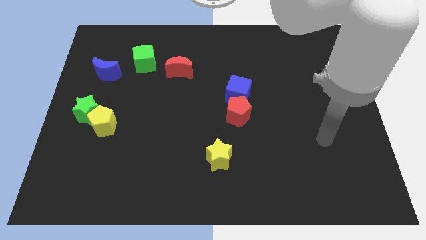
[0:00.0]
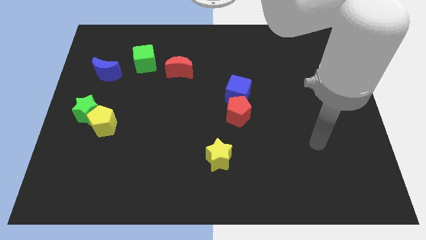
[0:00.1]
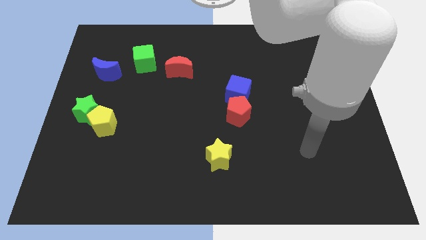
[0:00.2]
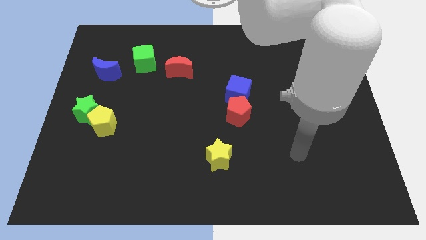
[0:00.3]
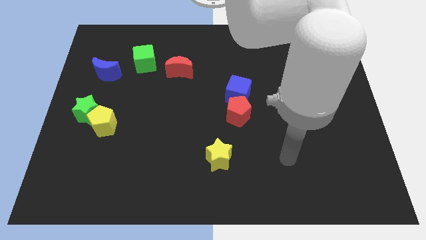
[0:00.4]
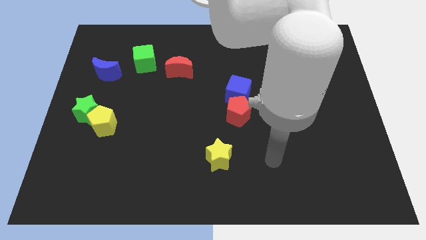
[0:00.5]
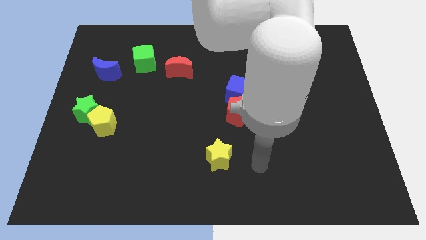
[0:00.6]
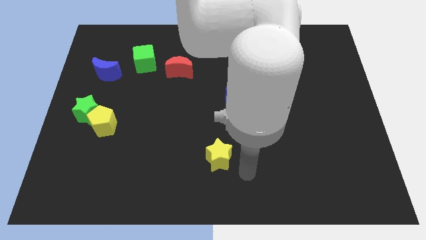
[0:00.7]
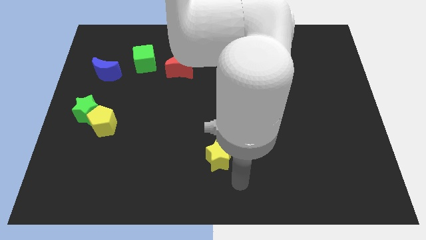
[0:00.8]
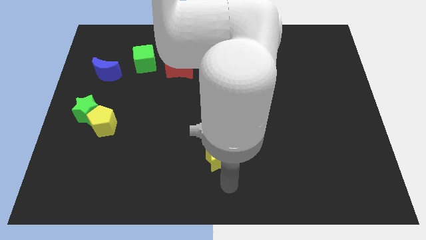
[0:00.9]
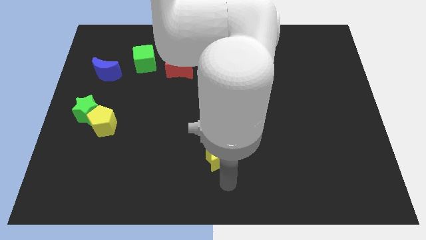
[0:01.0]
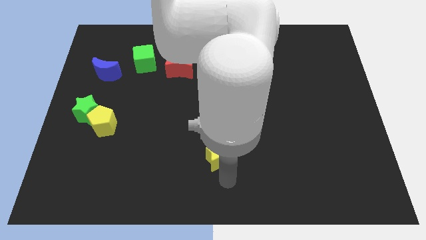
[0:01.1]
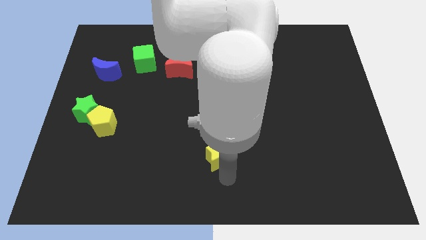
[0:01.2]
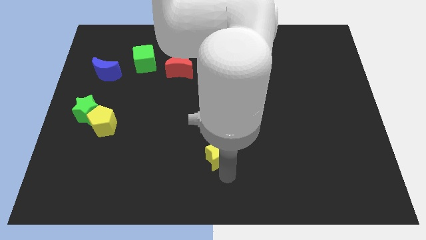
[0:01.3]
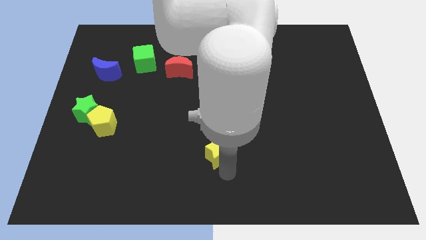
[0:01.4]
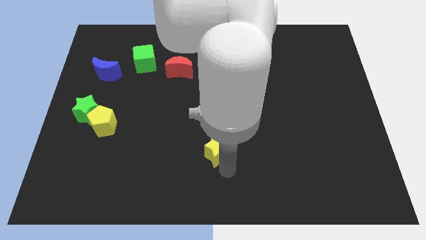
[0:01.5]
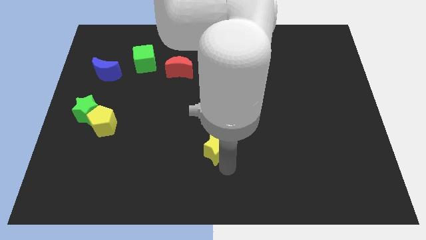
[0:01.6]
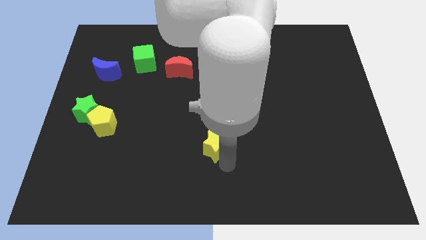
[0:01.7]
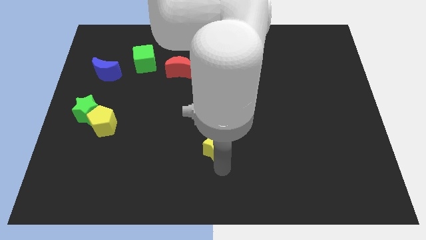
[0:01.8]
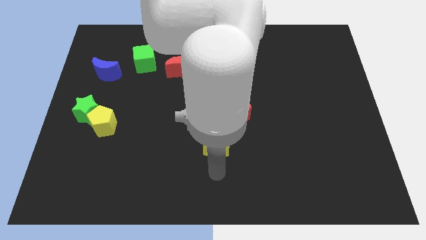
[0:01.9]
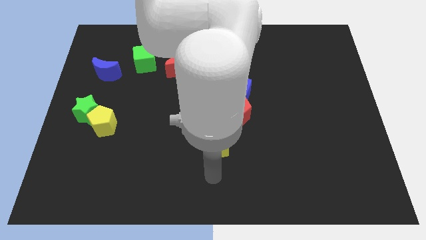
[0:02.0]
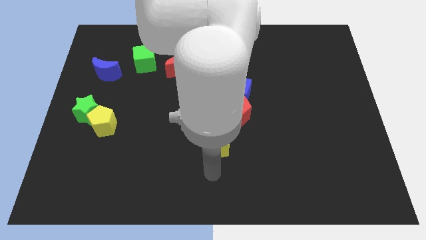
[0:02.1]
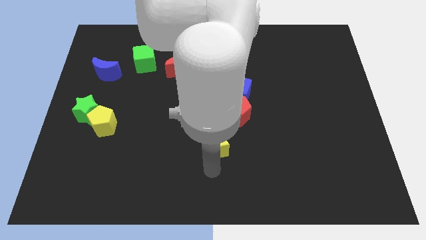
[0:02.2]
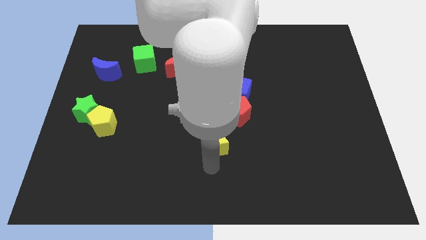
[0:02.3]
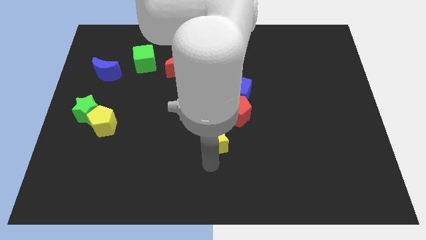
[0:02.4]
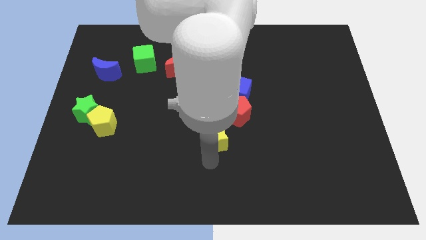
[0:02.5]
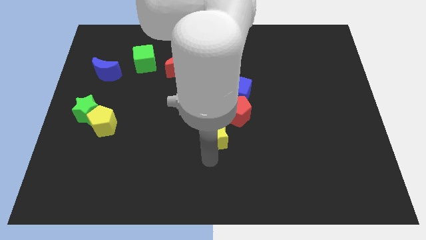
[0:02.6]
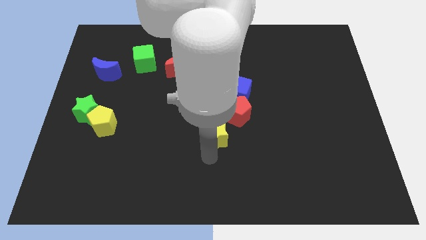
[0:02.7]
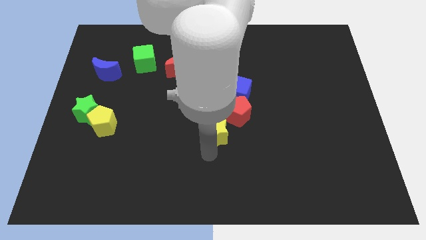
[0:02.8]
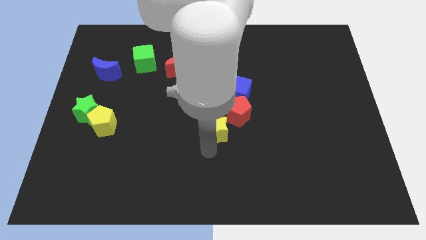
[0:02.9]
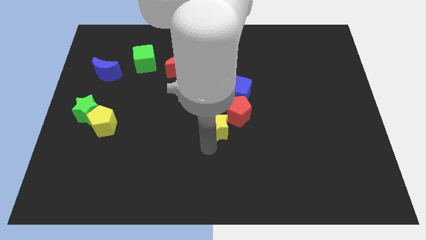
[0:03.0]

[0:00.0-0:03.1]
move the yellow star a little bit up

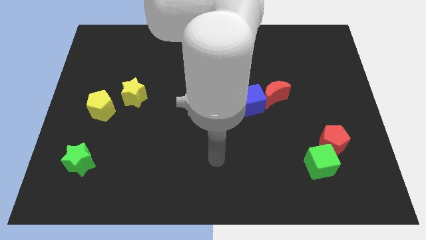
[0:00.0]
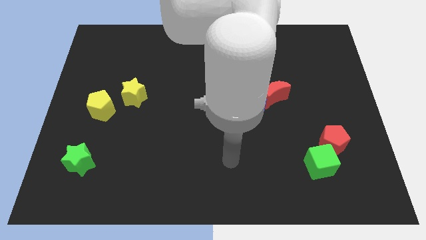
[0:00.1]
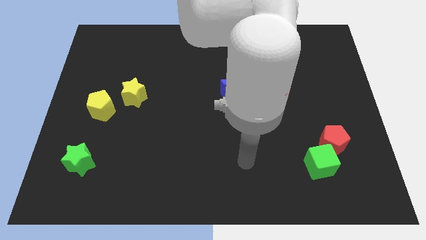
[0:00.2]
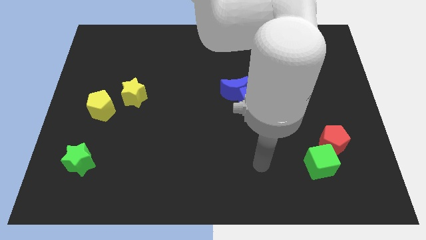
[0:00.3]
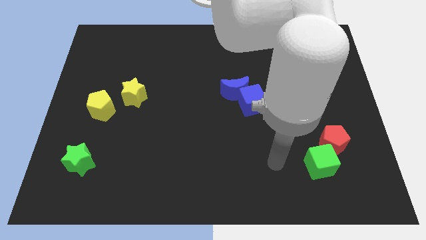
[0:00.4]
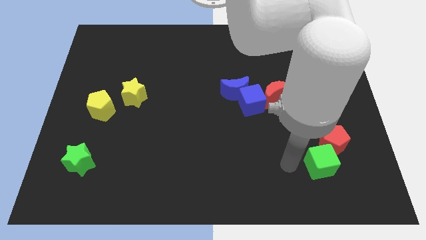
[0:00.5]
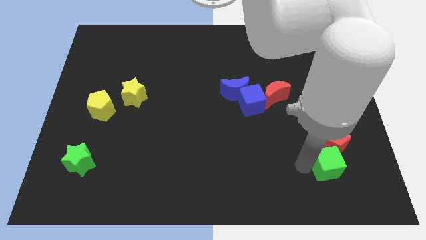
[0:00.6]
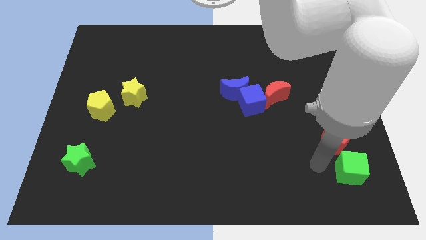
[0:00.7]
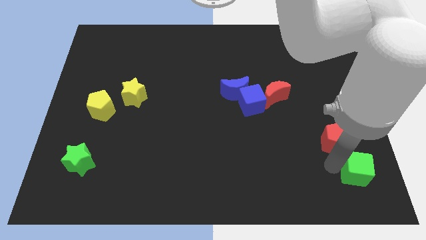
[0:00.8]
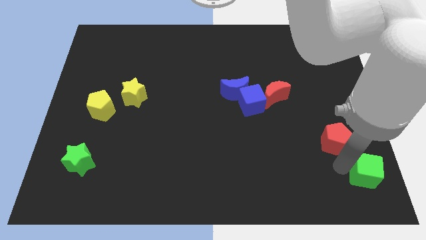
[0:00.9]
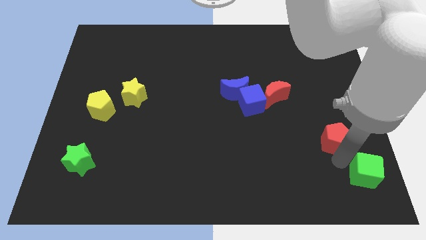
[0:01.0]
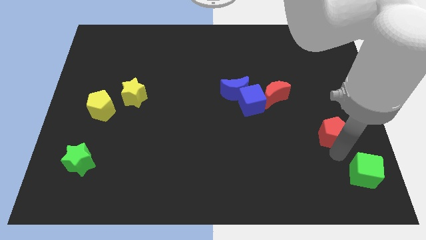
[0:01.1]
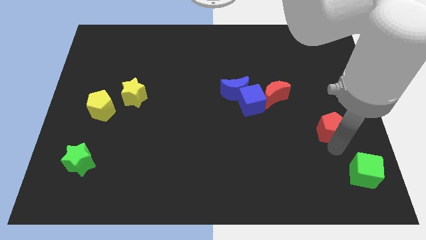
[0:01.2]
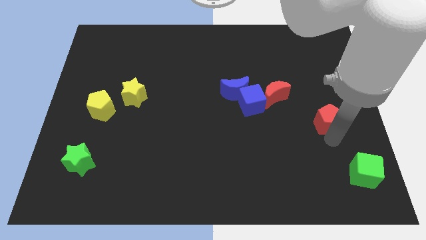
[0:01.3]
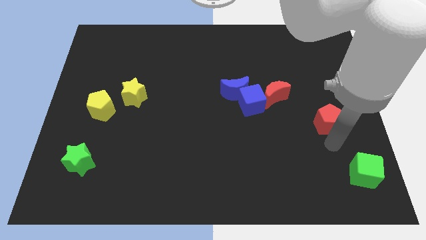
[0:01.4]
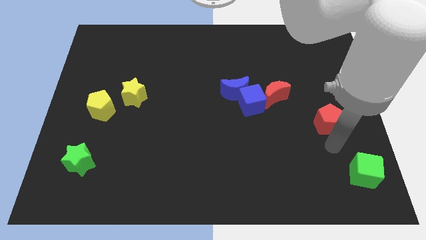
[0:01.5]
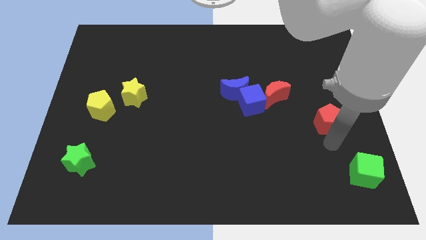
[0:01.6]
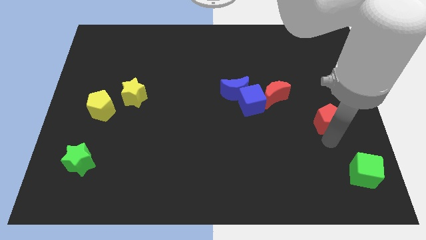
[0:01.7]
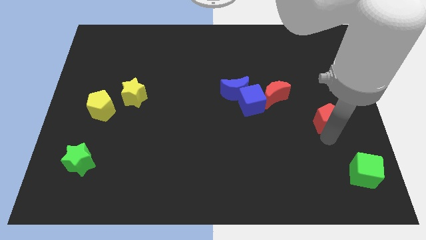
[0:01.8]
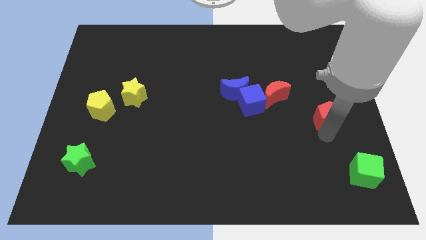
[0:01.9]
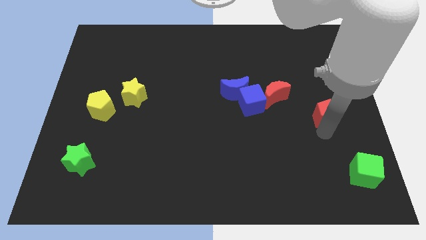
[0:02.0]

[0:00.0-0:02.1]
slide the red pentagon a little up

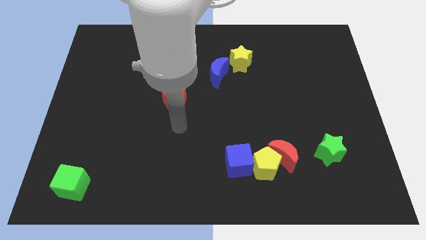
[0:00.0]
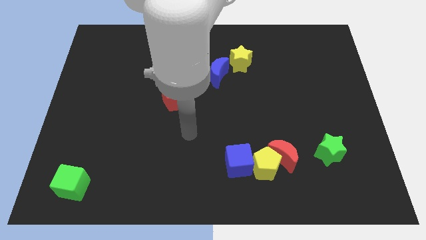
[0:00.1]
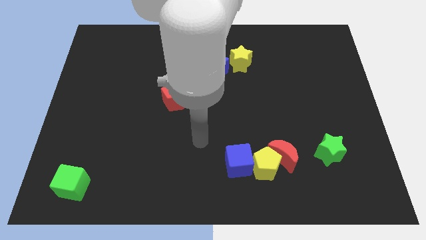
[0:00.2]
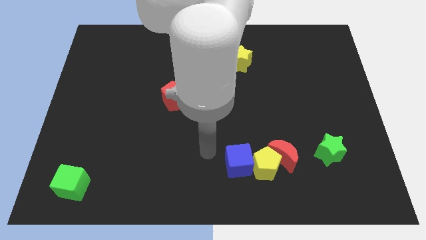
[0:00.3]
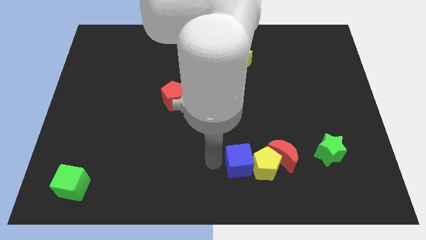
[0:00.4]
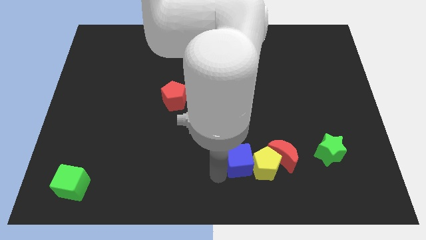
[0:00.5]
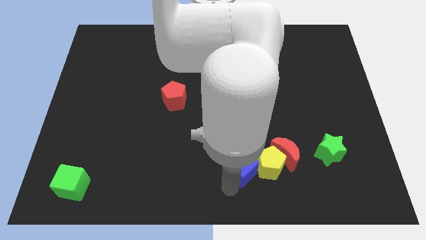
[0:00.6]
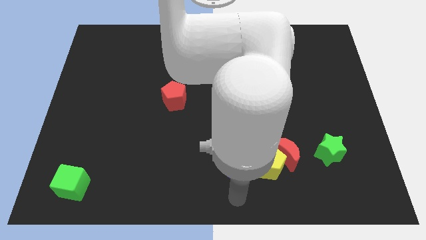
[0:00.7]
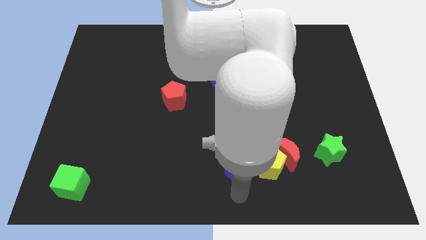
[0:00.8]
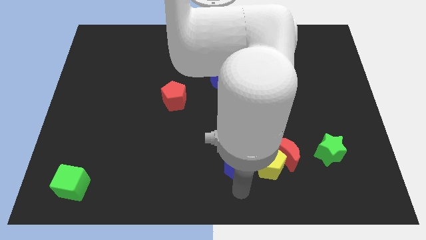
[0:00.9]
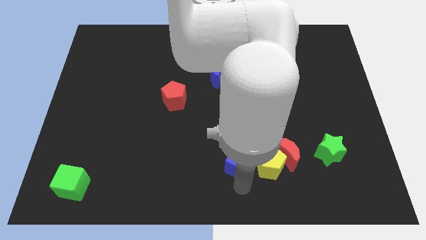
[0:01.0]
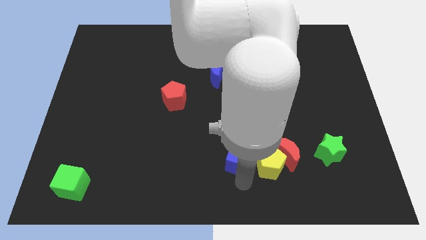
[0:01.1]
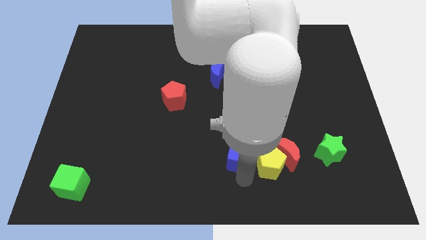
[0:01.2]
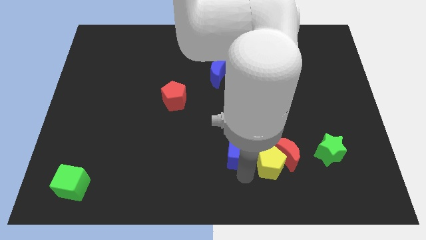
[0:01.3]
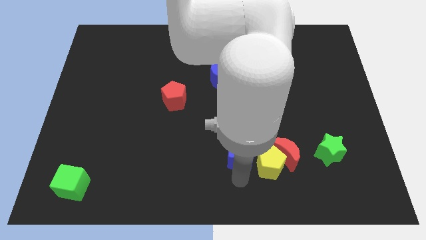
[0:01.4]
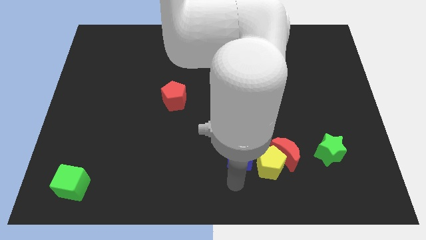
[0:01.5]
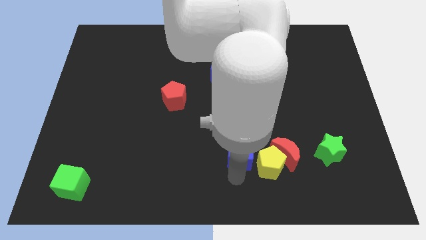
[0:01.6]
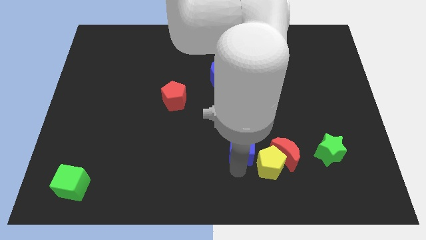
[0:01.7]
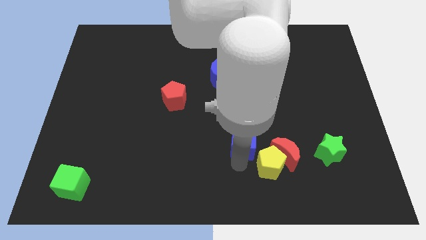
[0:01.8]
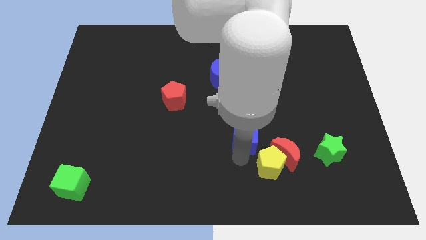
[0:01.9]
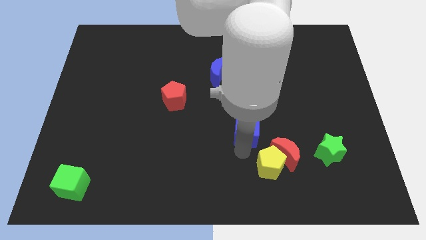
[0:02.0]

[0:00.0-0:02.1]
slightly slide the blue cube upwards

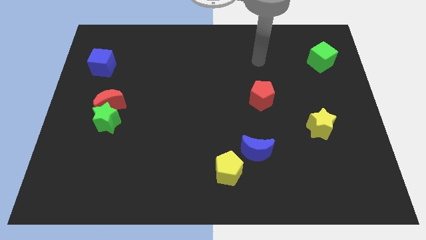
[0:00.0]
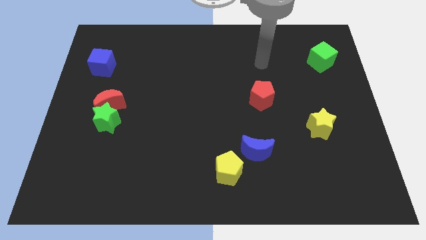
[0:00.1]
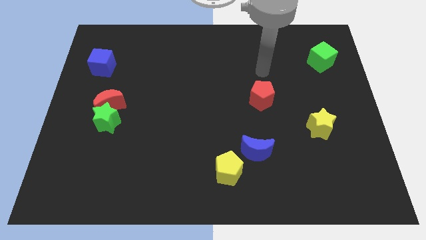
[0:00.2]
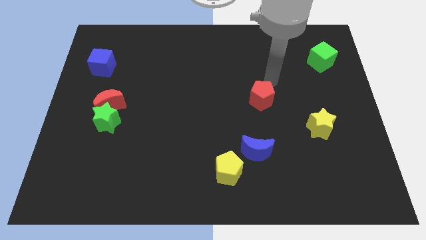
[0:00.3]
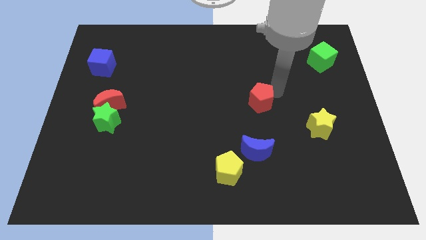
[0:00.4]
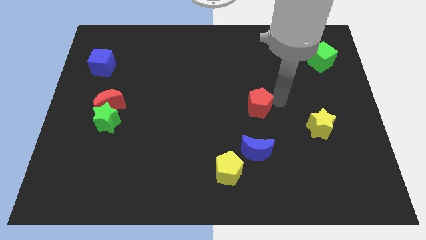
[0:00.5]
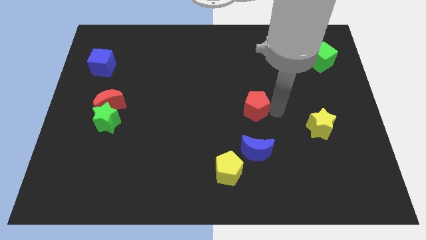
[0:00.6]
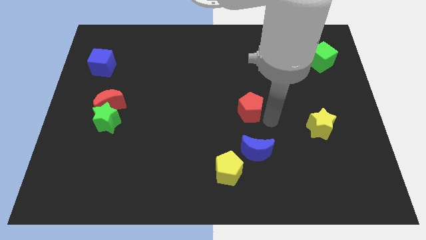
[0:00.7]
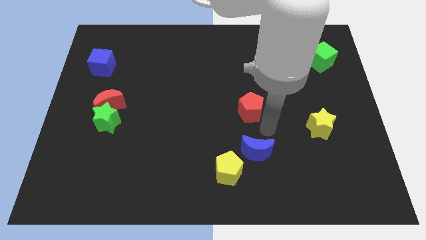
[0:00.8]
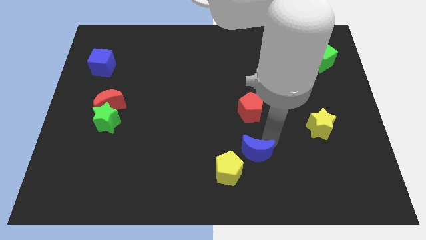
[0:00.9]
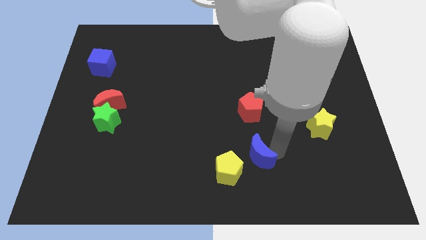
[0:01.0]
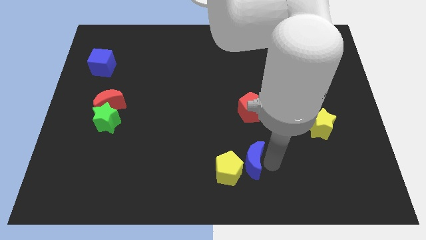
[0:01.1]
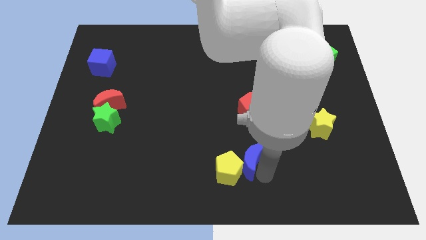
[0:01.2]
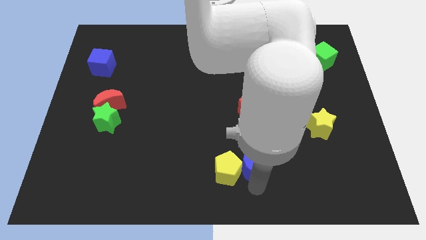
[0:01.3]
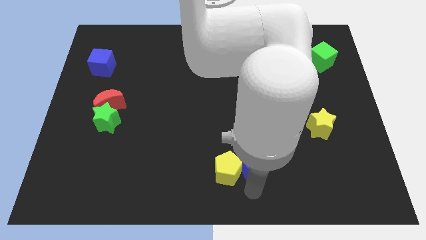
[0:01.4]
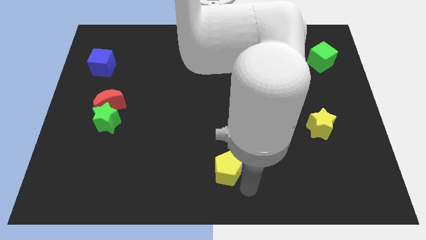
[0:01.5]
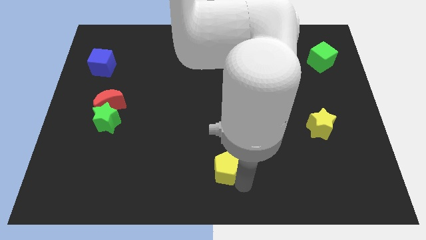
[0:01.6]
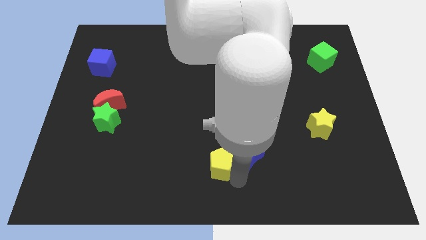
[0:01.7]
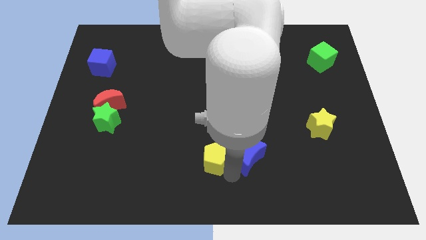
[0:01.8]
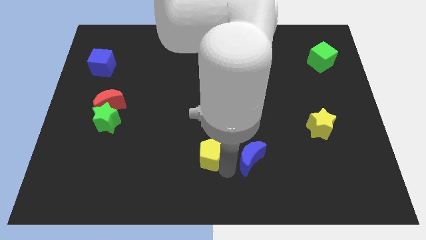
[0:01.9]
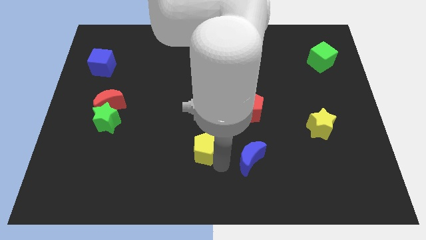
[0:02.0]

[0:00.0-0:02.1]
slide the yellow pentagon upwards and to the left diagonally a little
